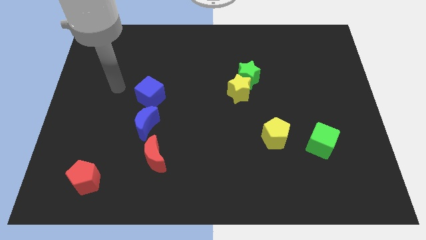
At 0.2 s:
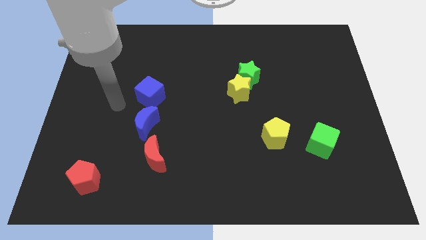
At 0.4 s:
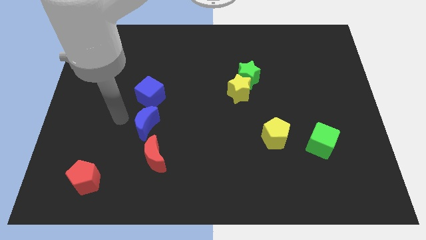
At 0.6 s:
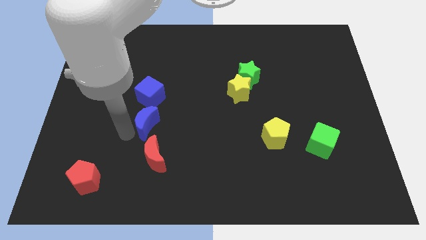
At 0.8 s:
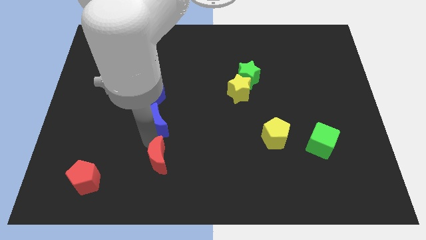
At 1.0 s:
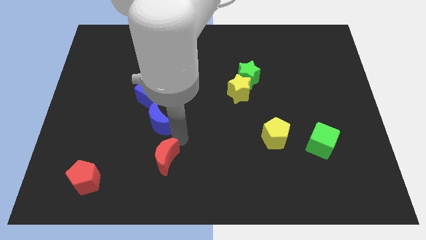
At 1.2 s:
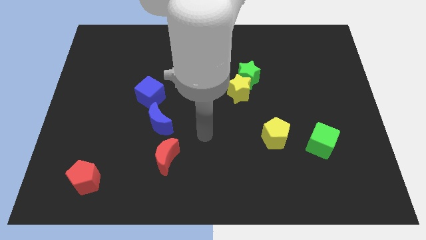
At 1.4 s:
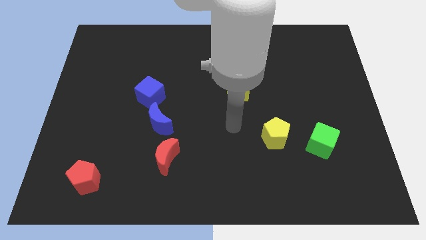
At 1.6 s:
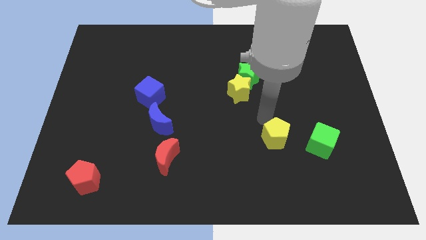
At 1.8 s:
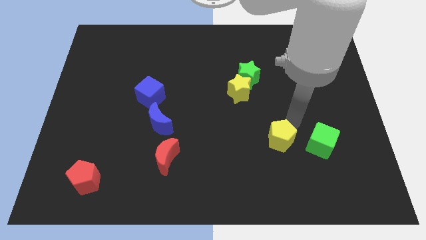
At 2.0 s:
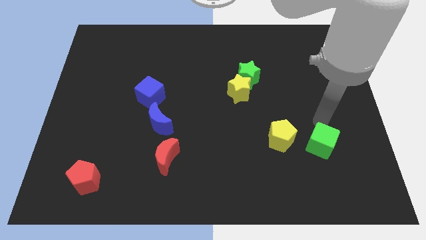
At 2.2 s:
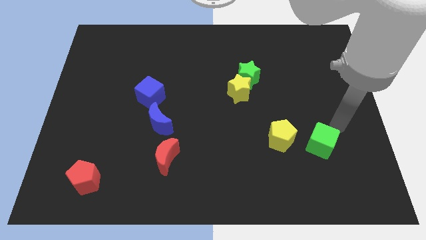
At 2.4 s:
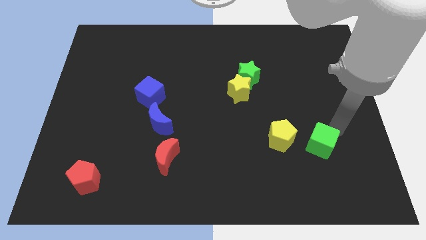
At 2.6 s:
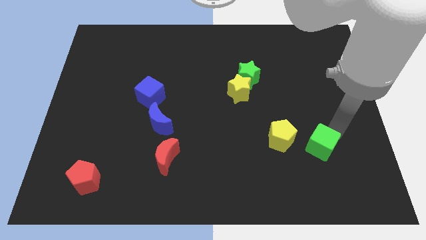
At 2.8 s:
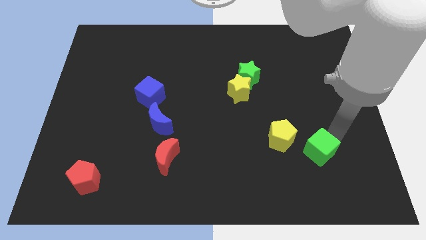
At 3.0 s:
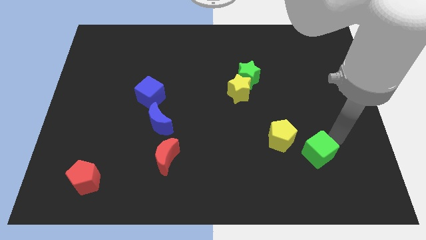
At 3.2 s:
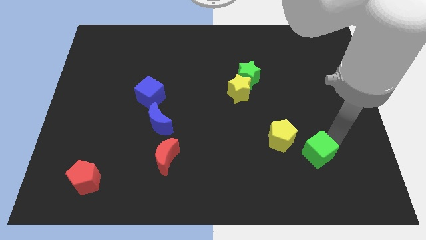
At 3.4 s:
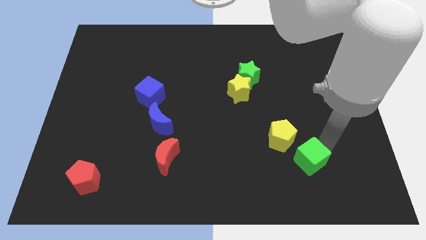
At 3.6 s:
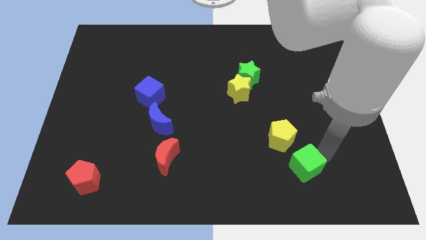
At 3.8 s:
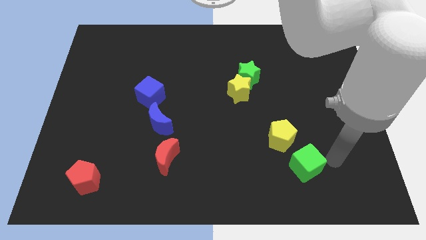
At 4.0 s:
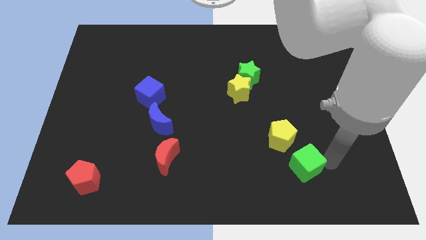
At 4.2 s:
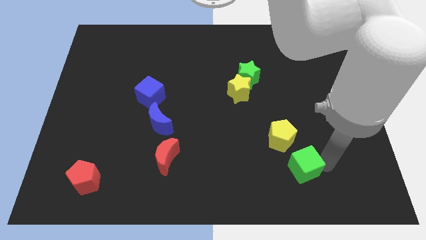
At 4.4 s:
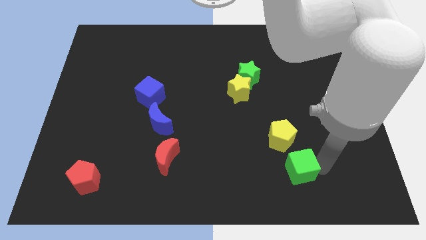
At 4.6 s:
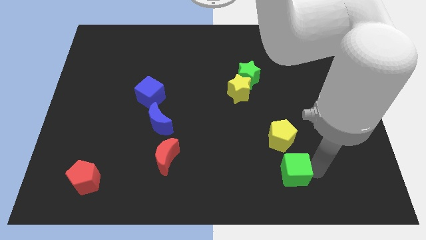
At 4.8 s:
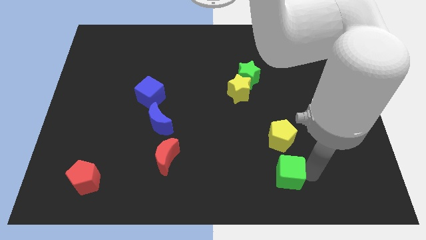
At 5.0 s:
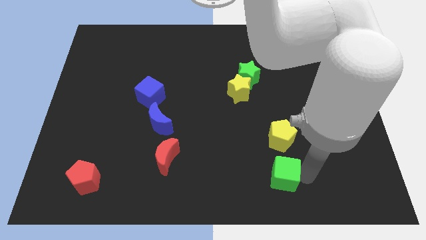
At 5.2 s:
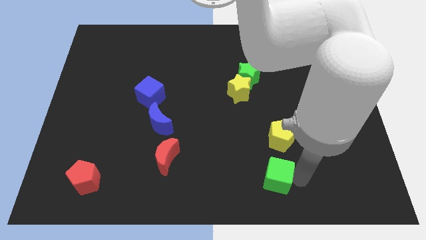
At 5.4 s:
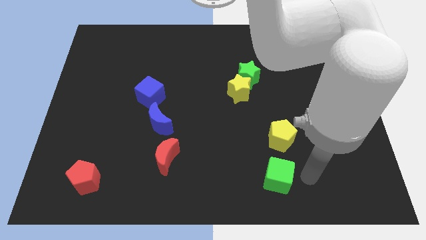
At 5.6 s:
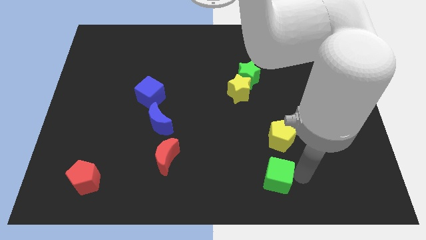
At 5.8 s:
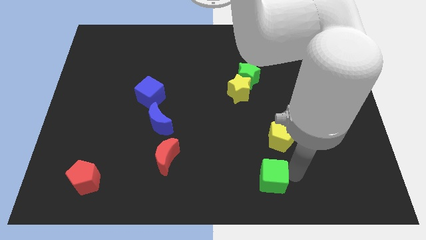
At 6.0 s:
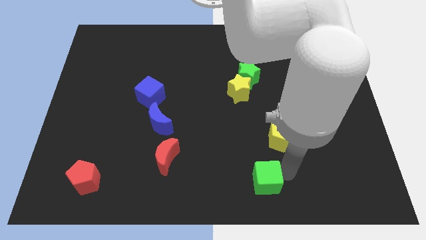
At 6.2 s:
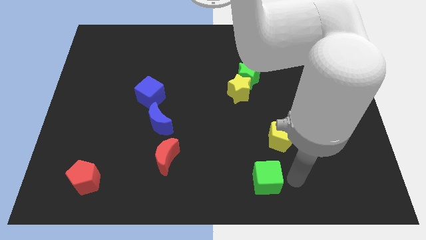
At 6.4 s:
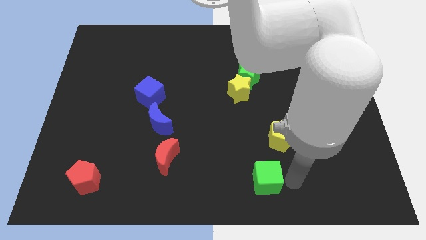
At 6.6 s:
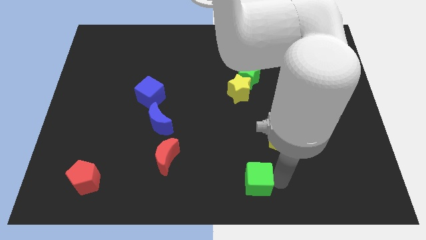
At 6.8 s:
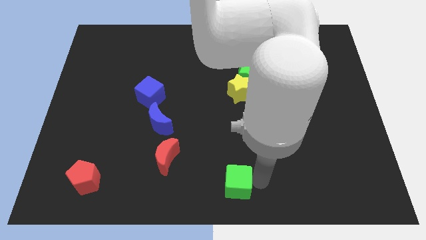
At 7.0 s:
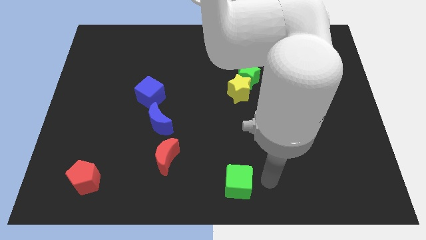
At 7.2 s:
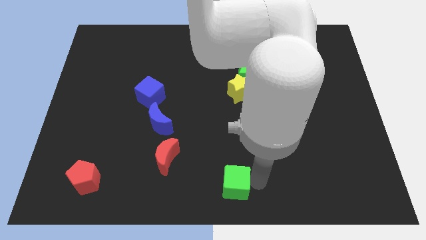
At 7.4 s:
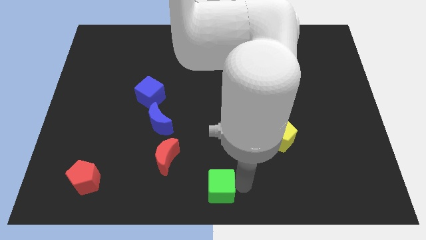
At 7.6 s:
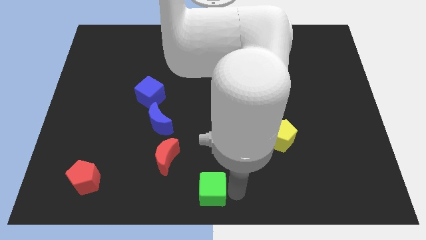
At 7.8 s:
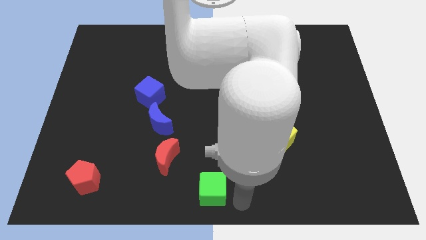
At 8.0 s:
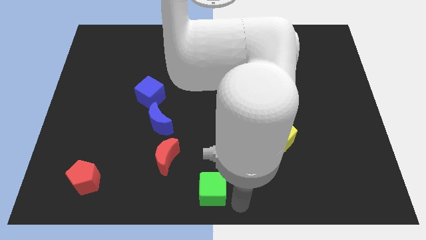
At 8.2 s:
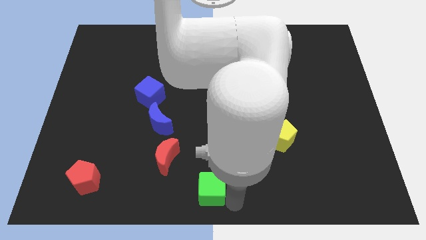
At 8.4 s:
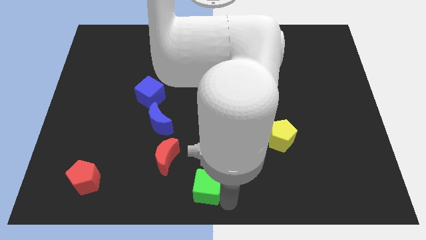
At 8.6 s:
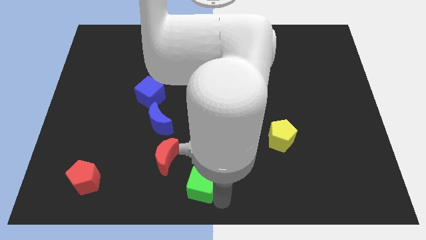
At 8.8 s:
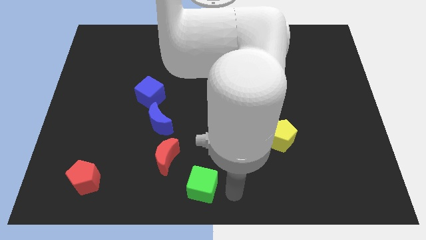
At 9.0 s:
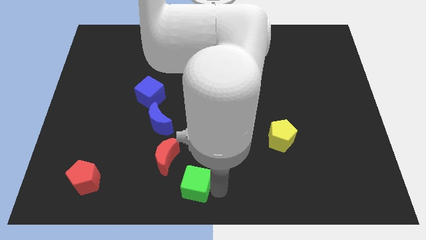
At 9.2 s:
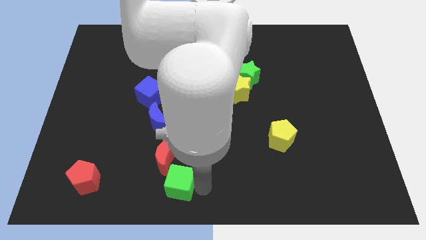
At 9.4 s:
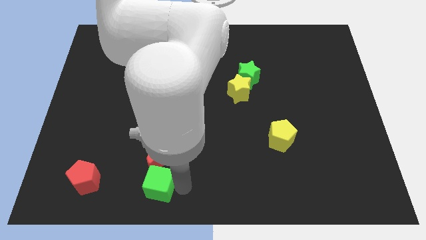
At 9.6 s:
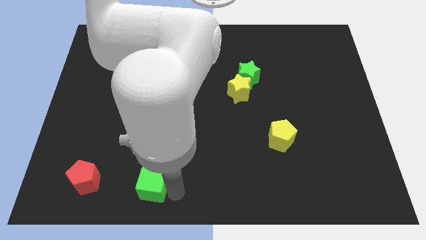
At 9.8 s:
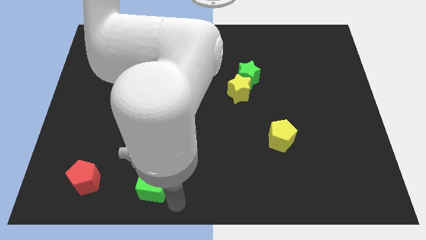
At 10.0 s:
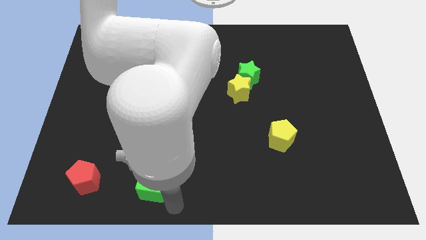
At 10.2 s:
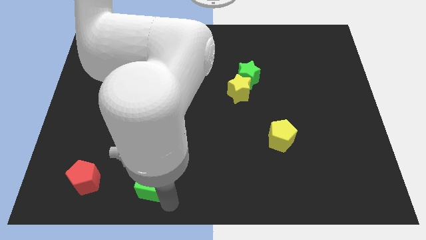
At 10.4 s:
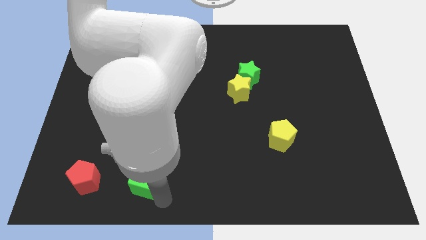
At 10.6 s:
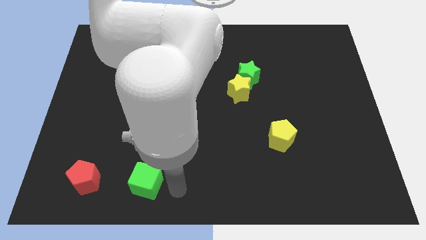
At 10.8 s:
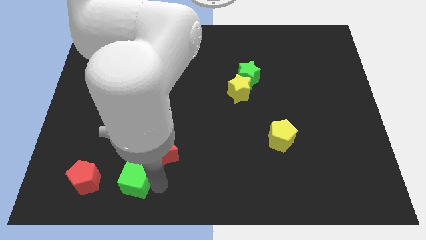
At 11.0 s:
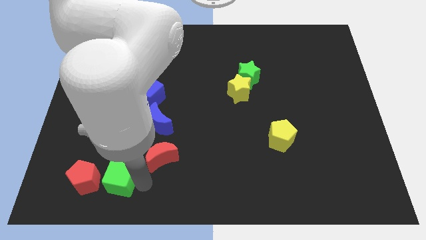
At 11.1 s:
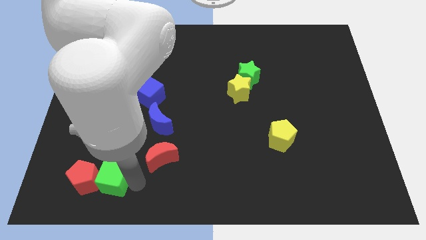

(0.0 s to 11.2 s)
move the green cube to the red pentagon

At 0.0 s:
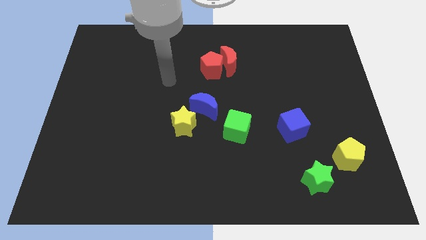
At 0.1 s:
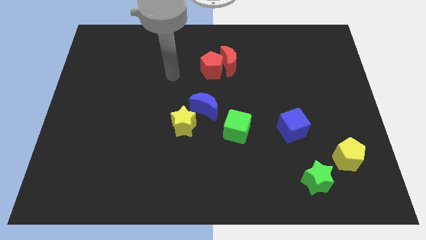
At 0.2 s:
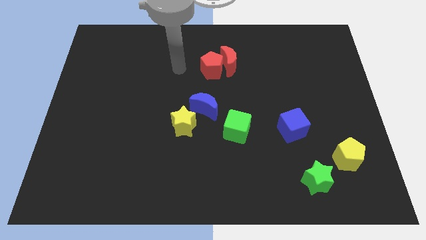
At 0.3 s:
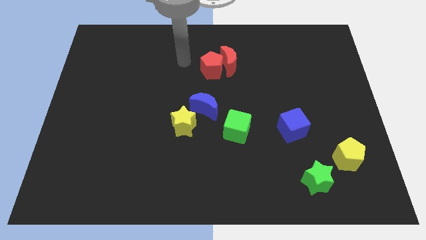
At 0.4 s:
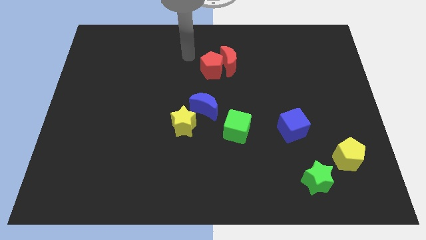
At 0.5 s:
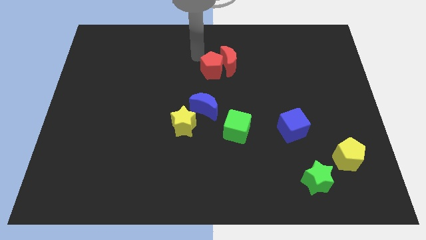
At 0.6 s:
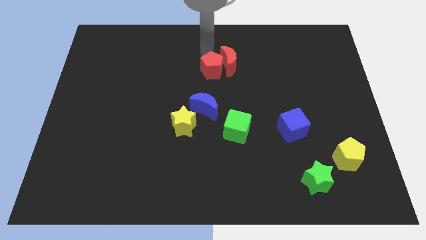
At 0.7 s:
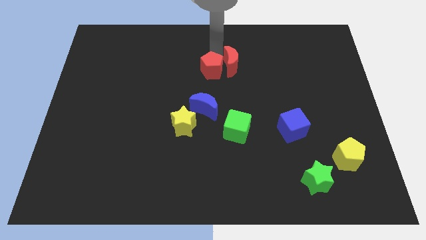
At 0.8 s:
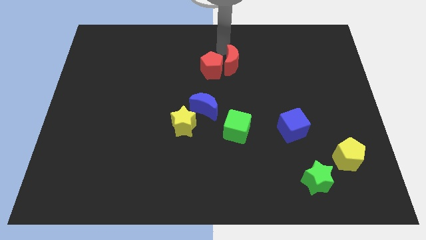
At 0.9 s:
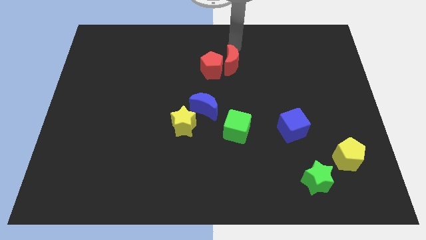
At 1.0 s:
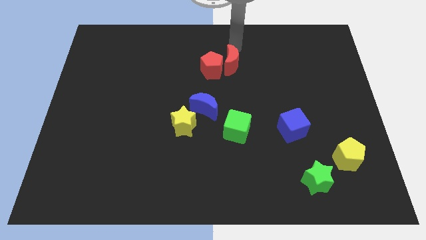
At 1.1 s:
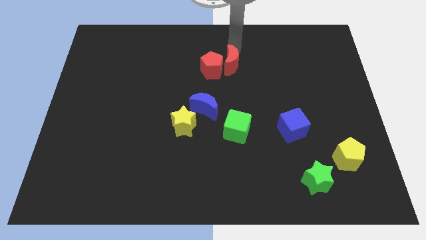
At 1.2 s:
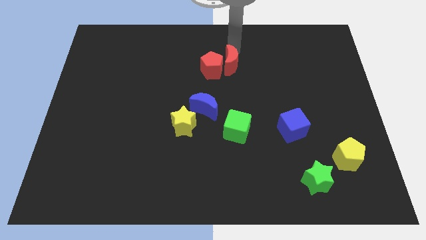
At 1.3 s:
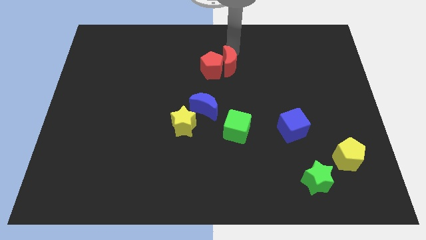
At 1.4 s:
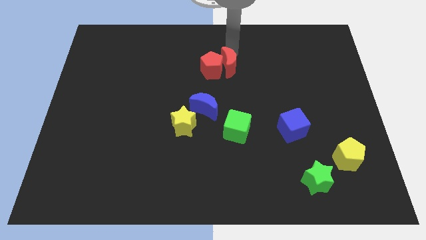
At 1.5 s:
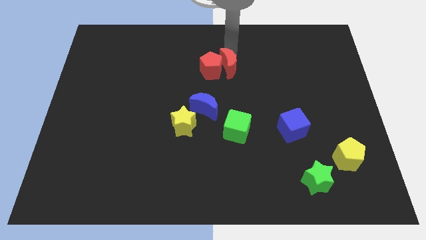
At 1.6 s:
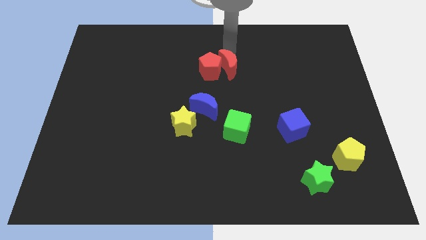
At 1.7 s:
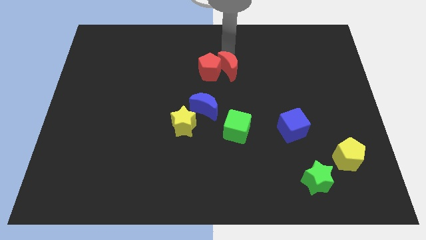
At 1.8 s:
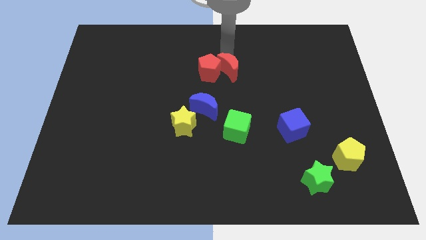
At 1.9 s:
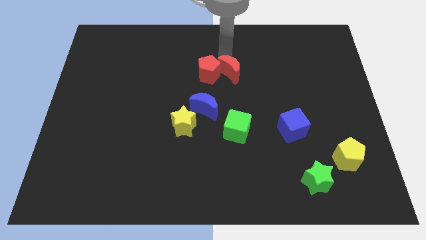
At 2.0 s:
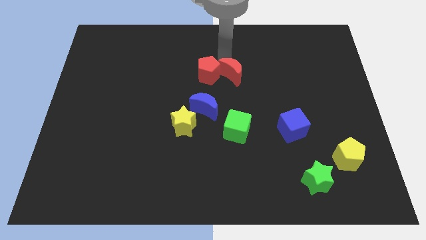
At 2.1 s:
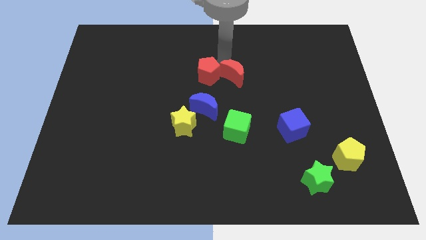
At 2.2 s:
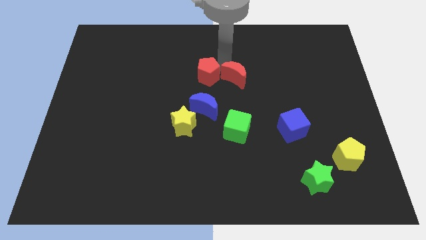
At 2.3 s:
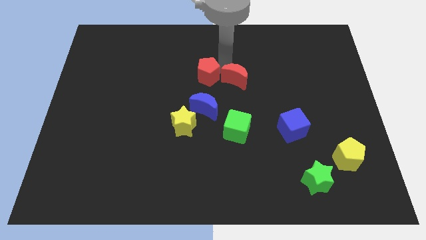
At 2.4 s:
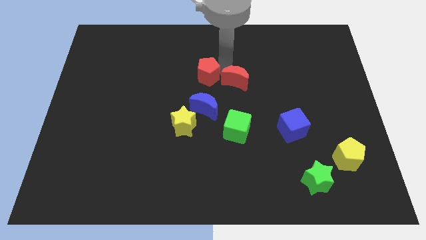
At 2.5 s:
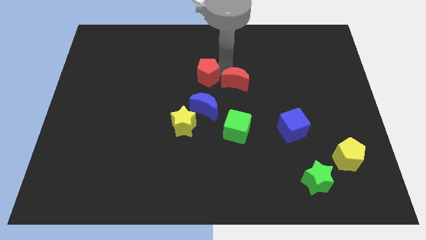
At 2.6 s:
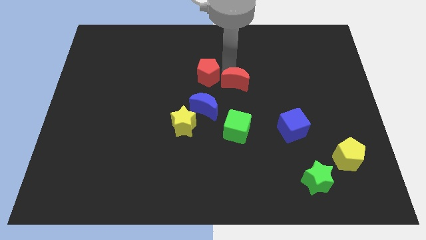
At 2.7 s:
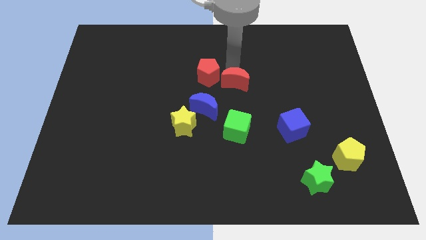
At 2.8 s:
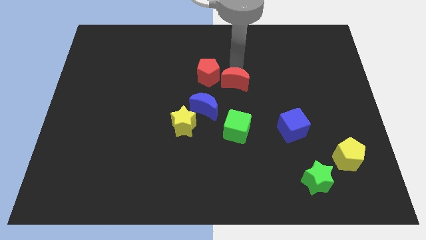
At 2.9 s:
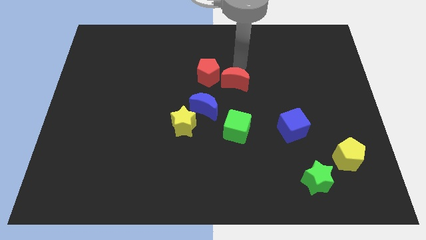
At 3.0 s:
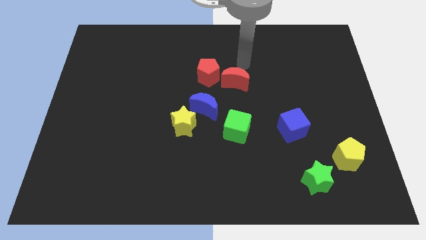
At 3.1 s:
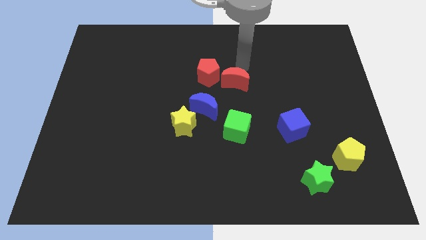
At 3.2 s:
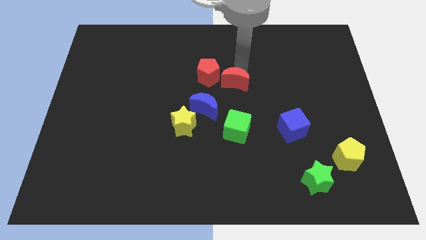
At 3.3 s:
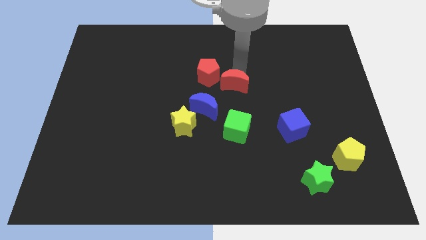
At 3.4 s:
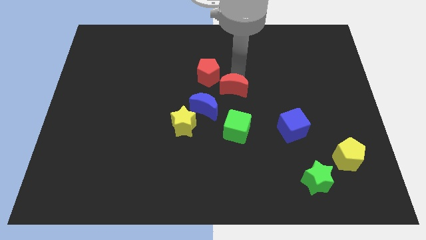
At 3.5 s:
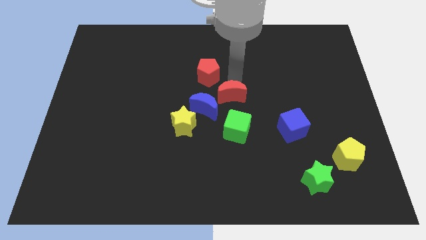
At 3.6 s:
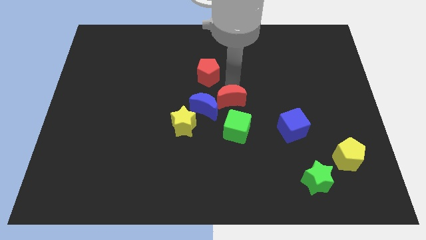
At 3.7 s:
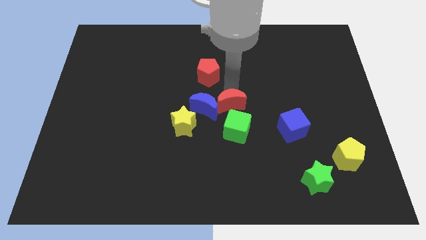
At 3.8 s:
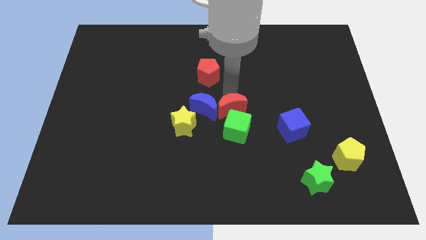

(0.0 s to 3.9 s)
slide the red moon to the green cube
